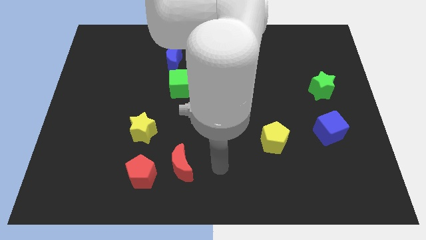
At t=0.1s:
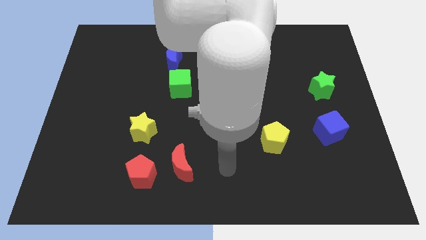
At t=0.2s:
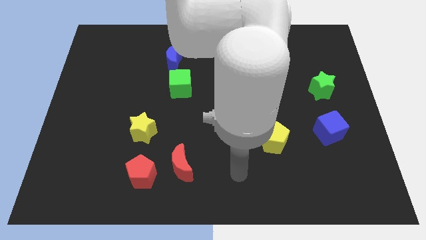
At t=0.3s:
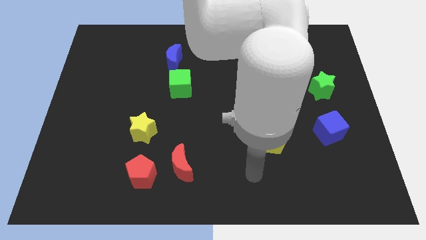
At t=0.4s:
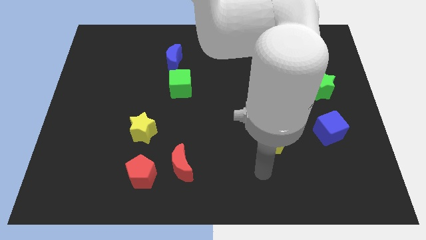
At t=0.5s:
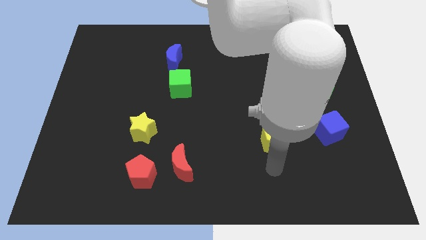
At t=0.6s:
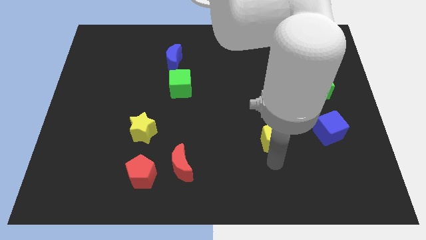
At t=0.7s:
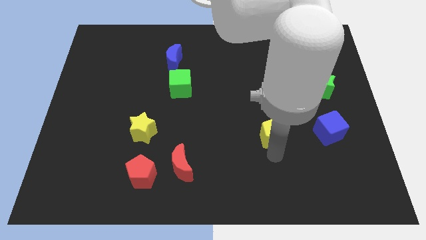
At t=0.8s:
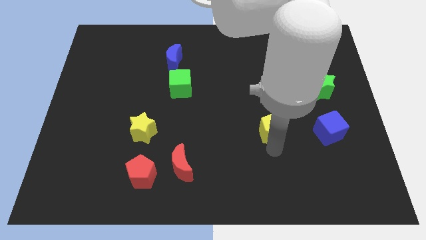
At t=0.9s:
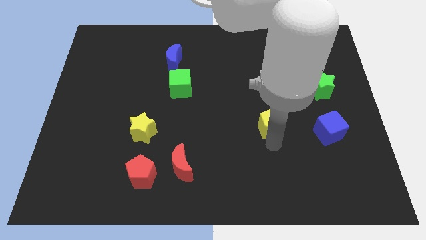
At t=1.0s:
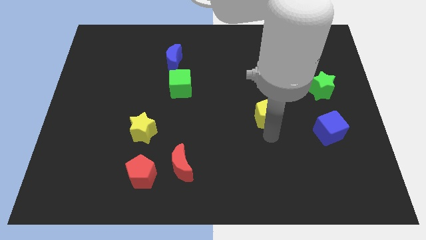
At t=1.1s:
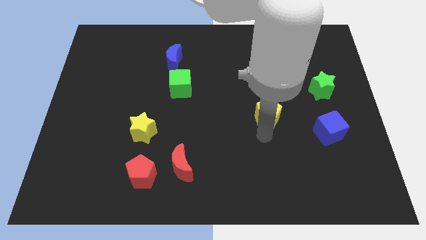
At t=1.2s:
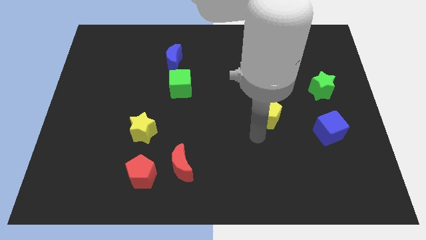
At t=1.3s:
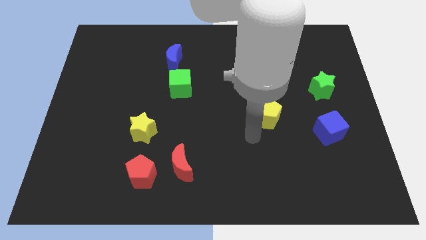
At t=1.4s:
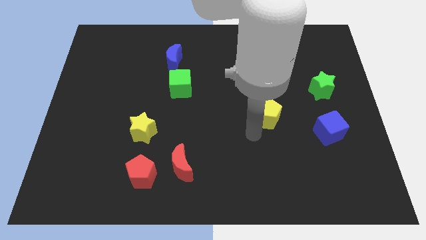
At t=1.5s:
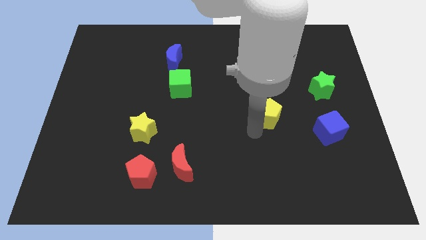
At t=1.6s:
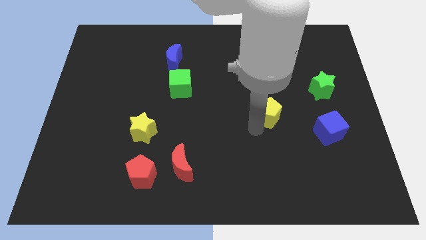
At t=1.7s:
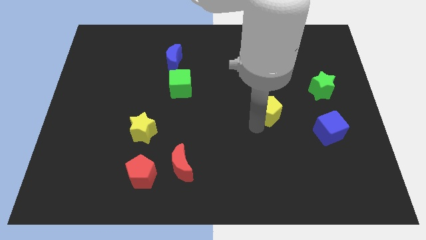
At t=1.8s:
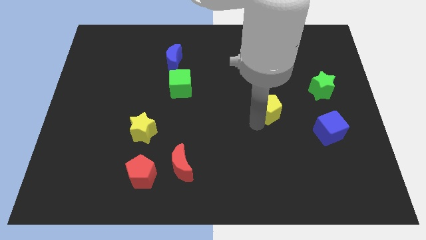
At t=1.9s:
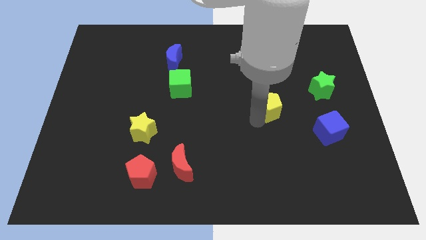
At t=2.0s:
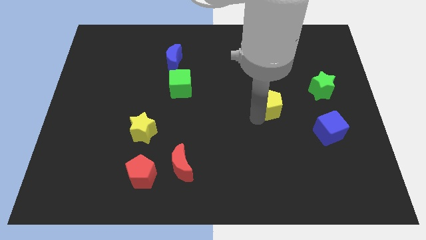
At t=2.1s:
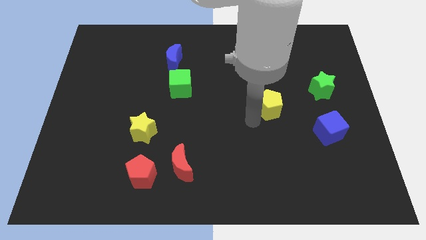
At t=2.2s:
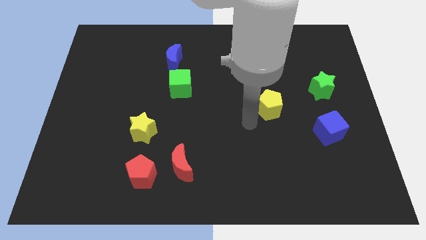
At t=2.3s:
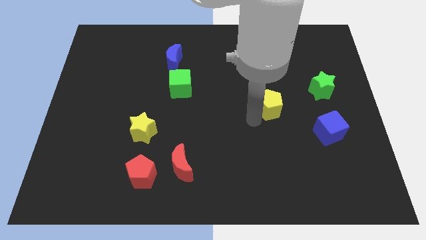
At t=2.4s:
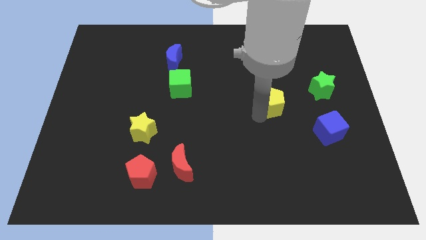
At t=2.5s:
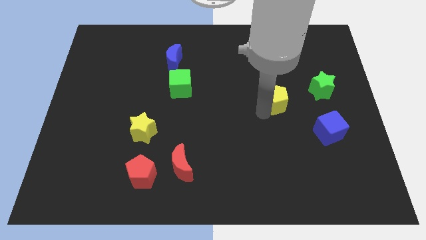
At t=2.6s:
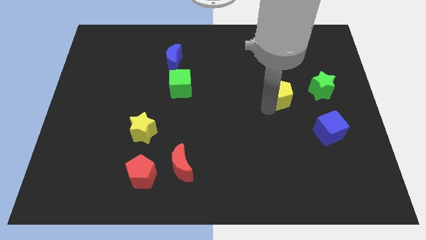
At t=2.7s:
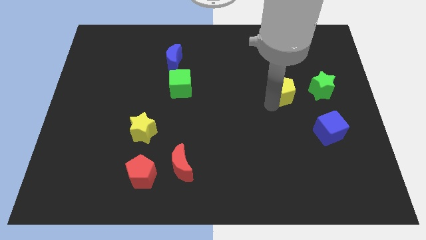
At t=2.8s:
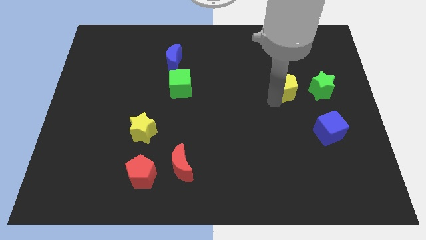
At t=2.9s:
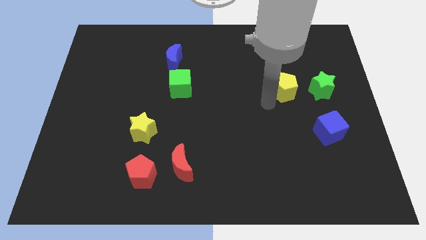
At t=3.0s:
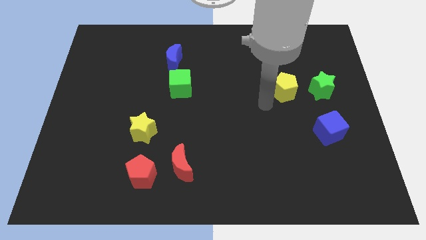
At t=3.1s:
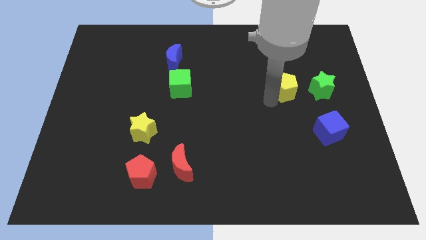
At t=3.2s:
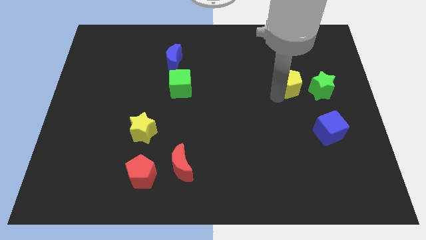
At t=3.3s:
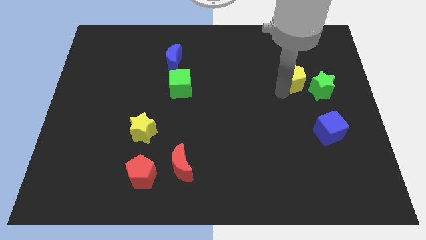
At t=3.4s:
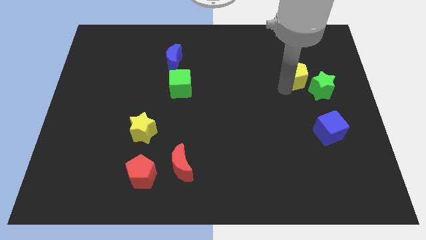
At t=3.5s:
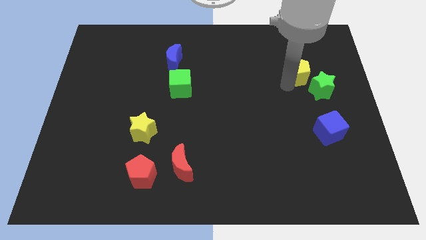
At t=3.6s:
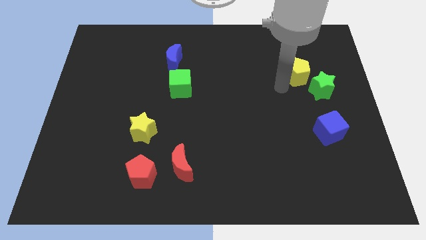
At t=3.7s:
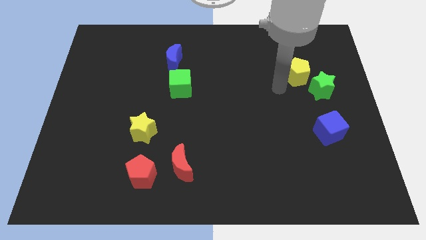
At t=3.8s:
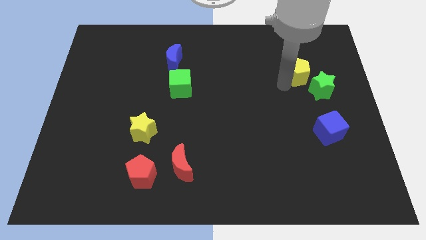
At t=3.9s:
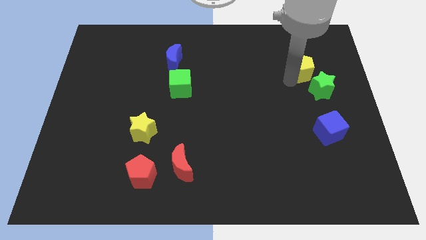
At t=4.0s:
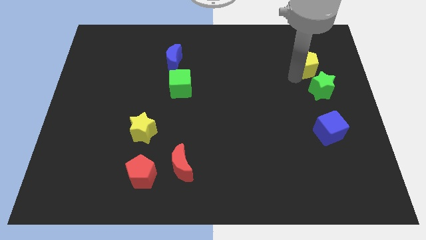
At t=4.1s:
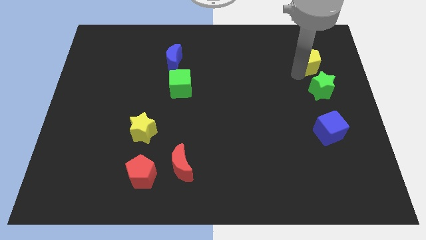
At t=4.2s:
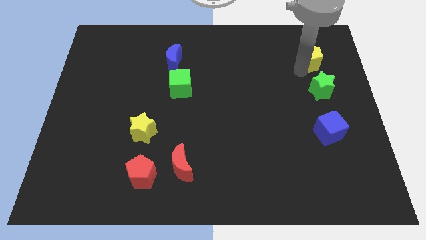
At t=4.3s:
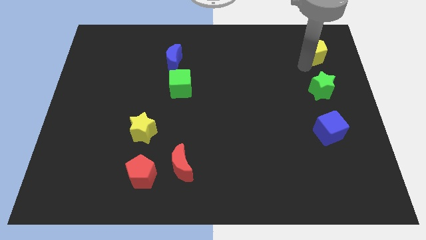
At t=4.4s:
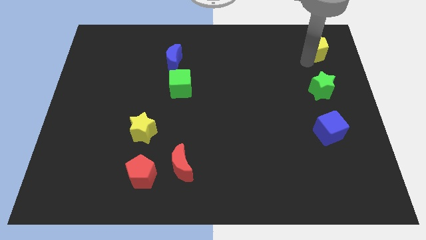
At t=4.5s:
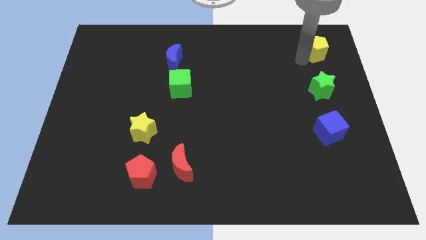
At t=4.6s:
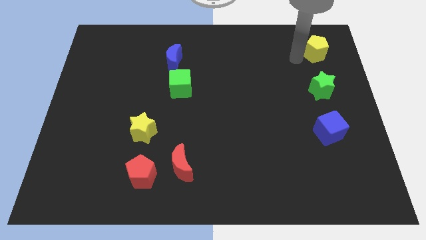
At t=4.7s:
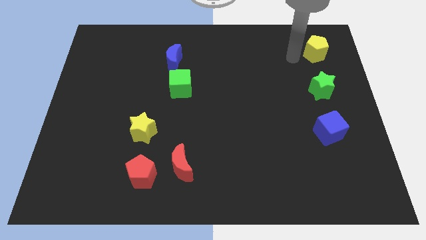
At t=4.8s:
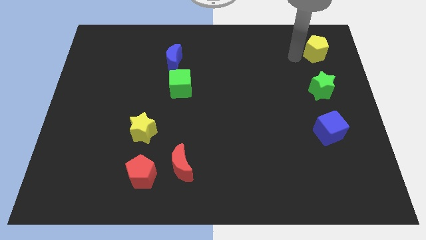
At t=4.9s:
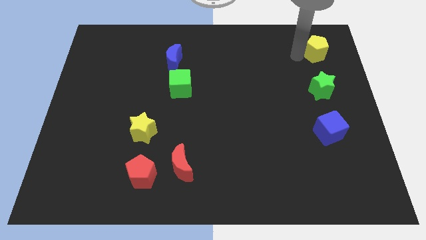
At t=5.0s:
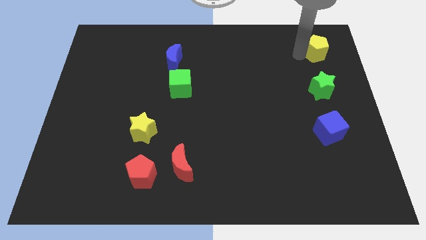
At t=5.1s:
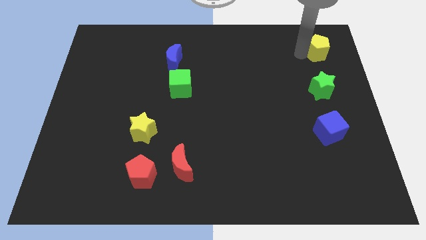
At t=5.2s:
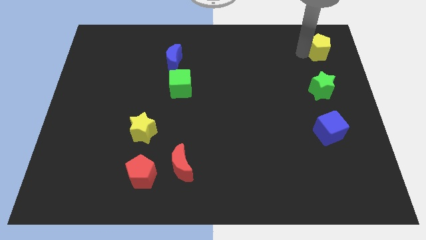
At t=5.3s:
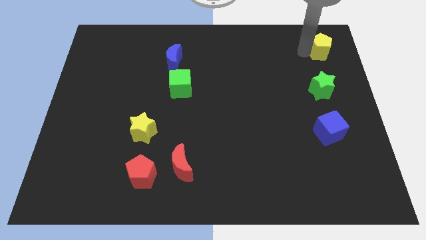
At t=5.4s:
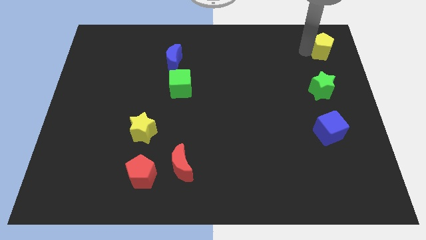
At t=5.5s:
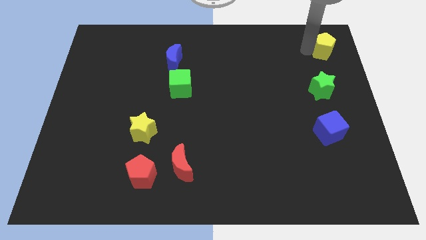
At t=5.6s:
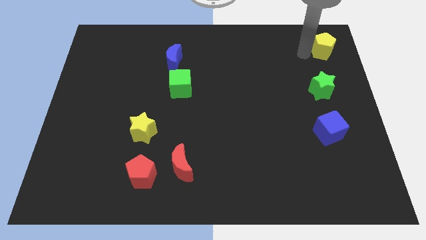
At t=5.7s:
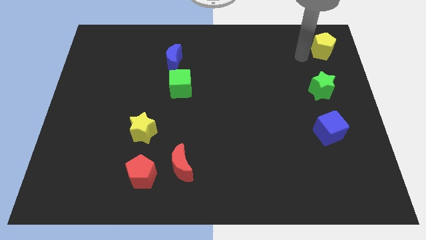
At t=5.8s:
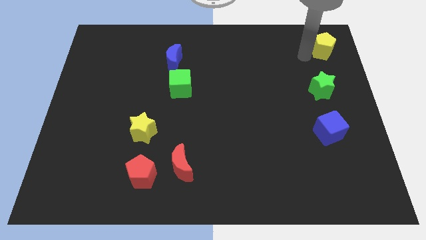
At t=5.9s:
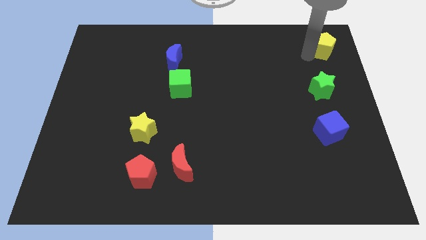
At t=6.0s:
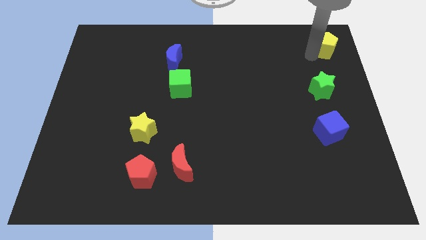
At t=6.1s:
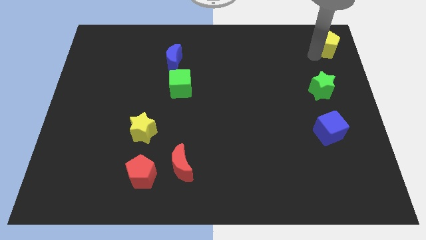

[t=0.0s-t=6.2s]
move the yellow pentagon to the top right

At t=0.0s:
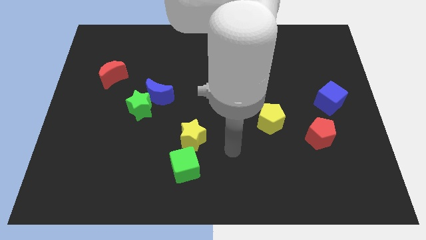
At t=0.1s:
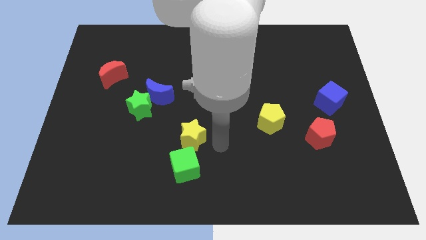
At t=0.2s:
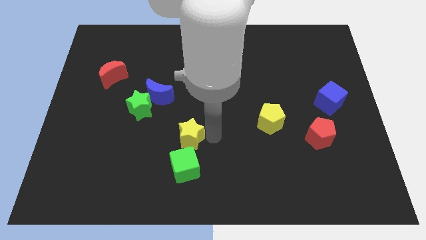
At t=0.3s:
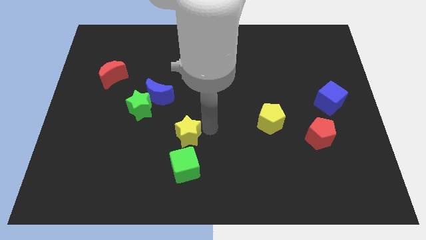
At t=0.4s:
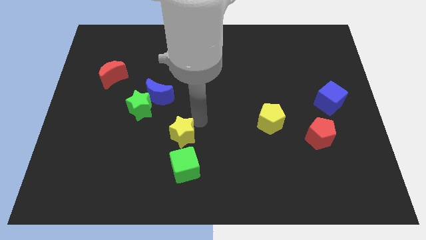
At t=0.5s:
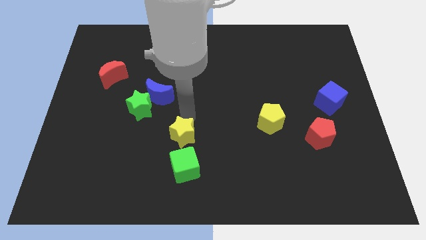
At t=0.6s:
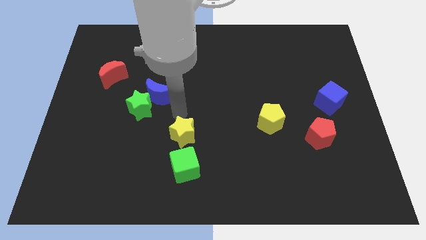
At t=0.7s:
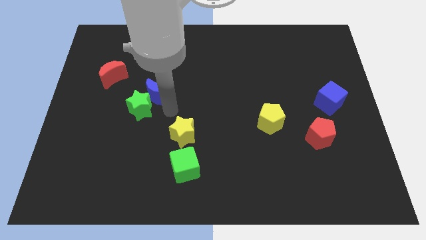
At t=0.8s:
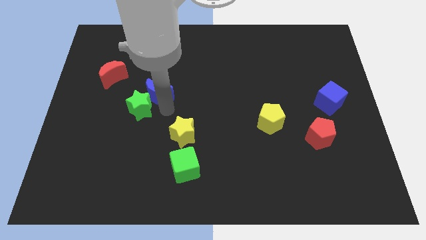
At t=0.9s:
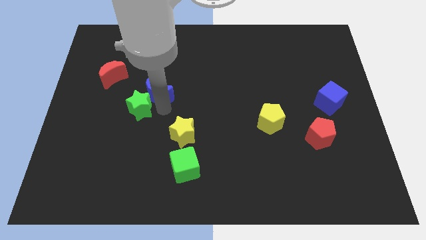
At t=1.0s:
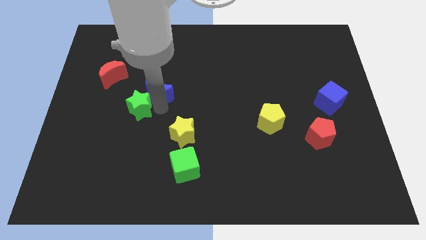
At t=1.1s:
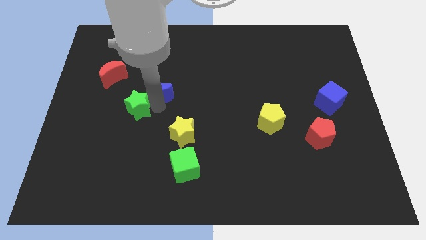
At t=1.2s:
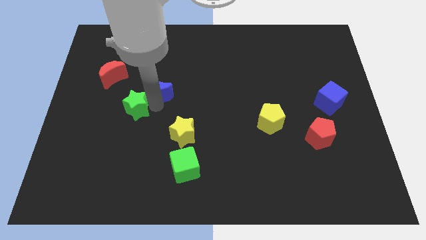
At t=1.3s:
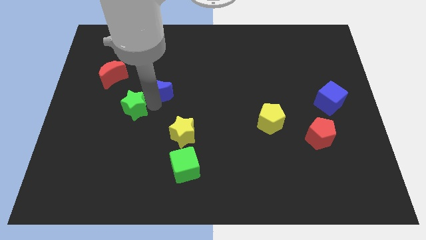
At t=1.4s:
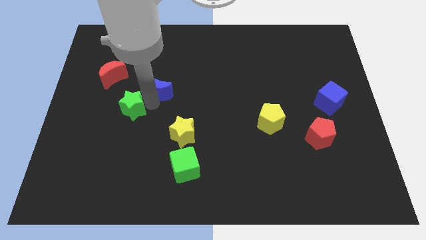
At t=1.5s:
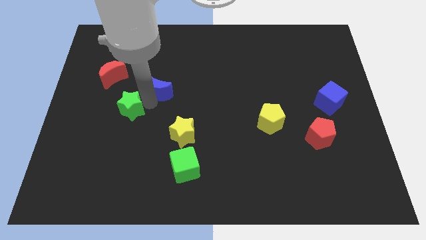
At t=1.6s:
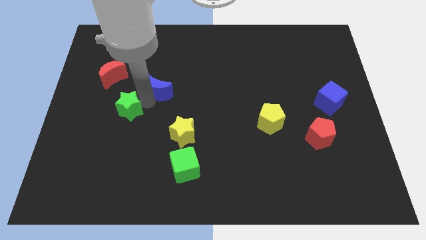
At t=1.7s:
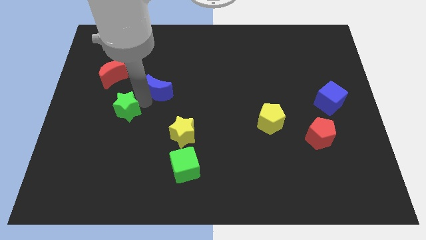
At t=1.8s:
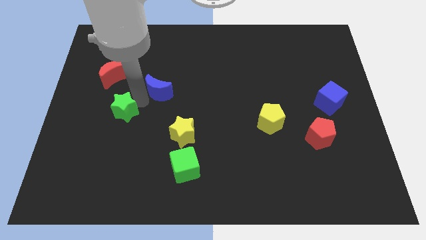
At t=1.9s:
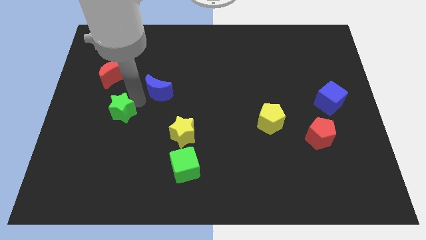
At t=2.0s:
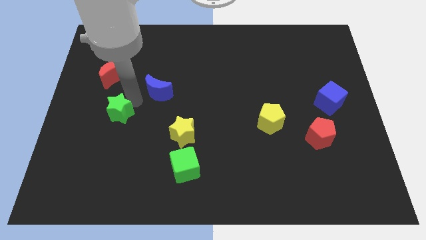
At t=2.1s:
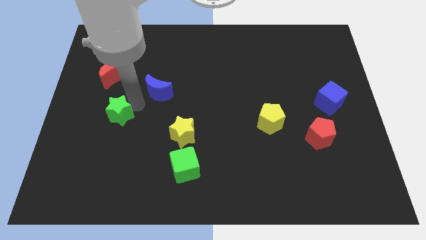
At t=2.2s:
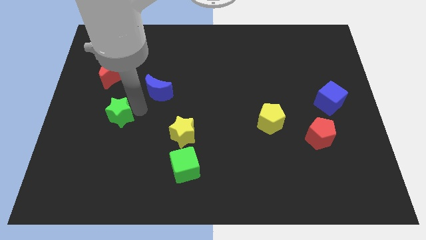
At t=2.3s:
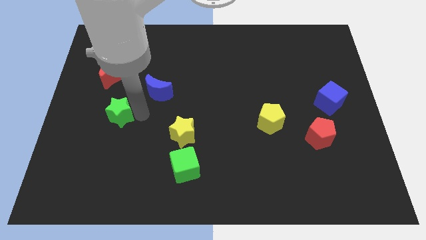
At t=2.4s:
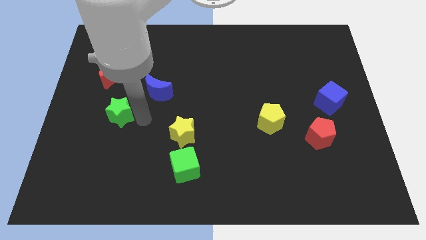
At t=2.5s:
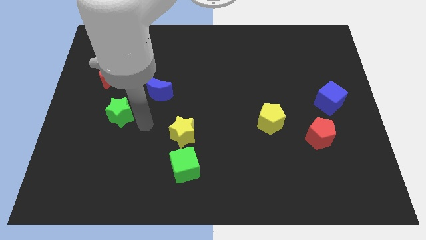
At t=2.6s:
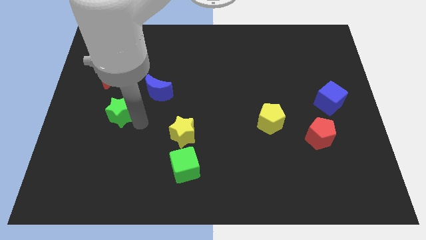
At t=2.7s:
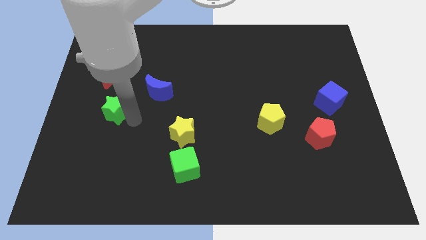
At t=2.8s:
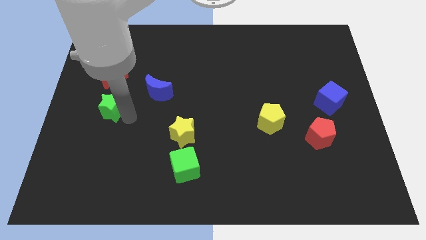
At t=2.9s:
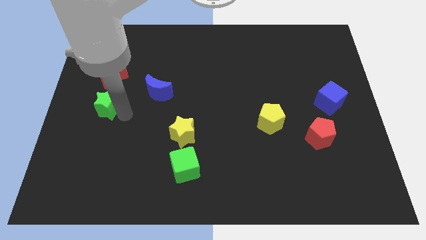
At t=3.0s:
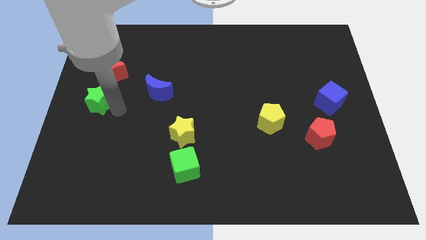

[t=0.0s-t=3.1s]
move the green star to the left side of the board
